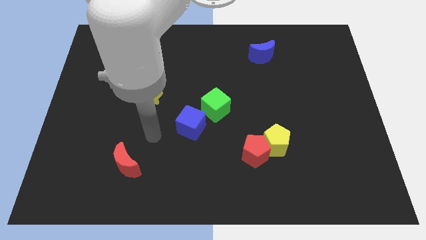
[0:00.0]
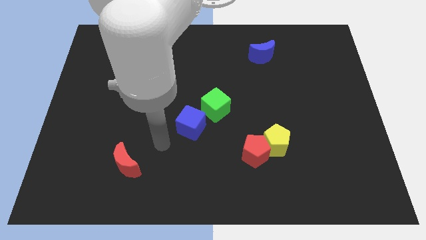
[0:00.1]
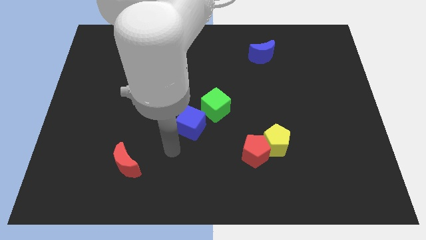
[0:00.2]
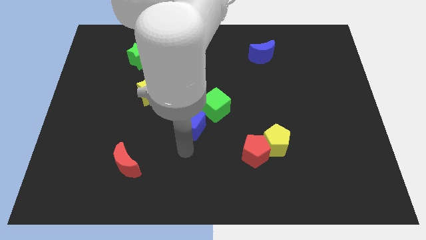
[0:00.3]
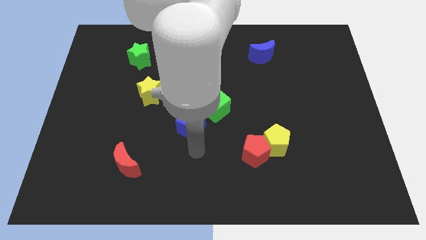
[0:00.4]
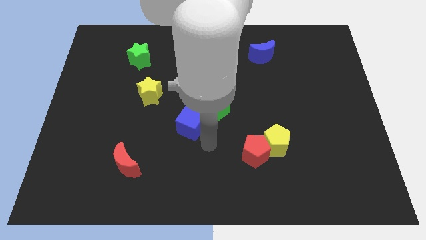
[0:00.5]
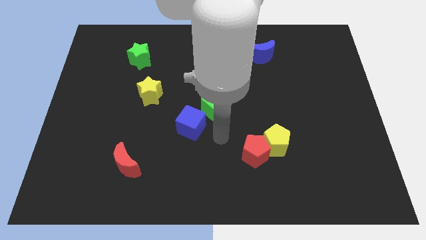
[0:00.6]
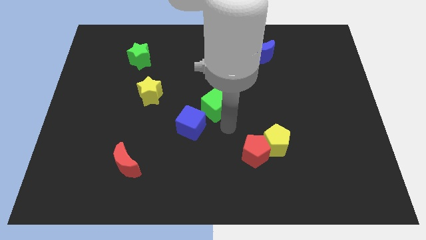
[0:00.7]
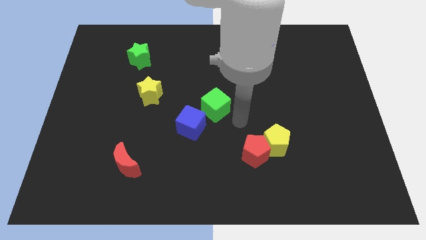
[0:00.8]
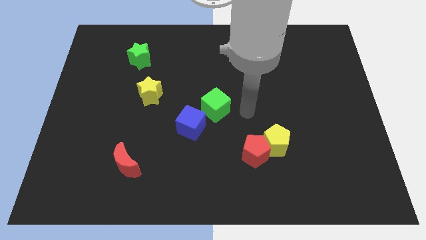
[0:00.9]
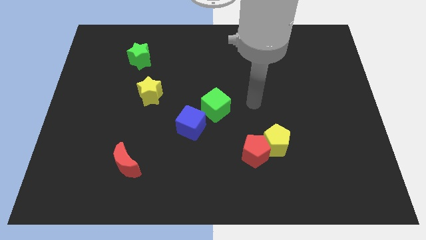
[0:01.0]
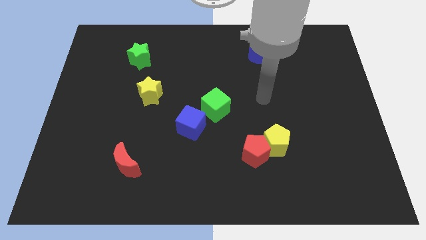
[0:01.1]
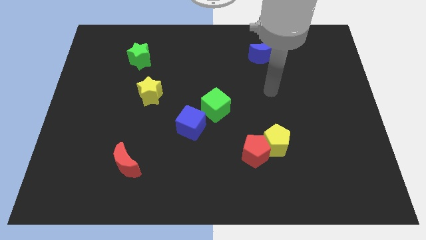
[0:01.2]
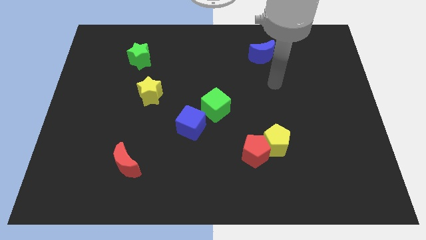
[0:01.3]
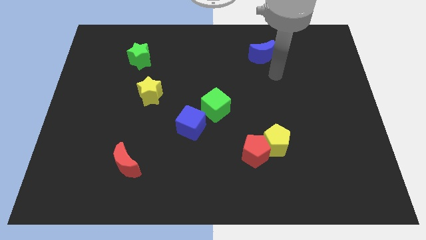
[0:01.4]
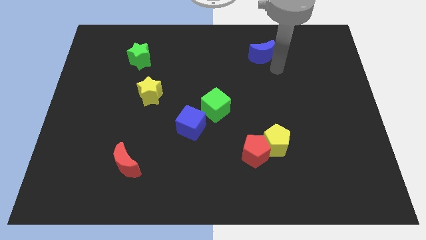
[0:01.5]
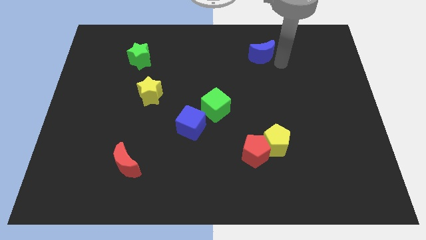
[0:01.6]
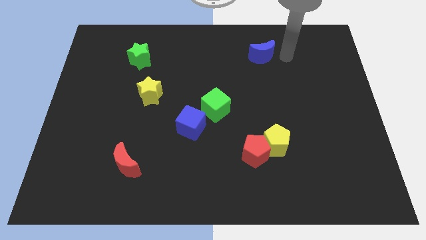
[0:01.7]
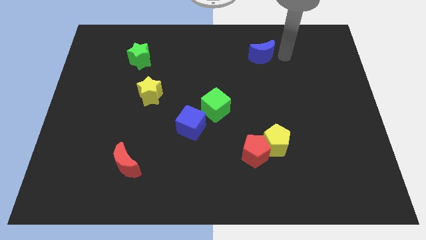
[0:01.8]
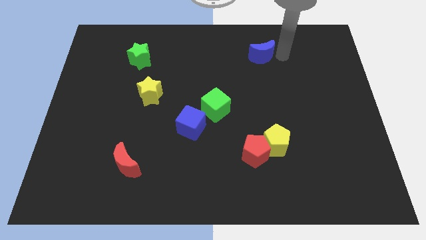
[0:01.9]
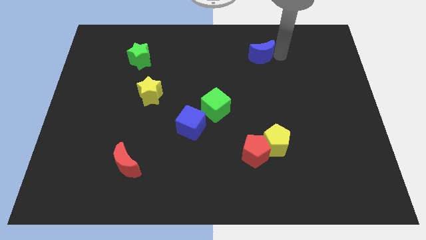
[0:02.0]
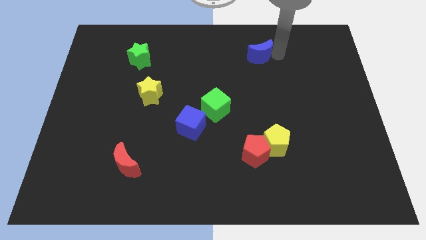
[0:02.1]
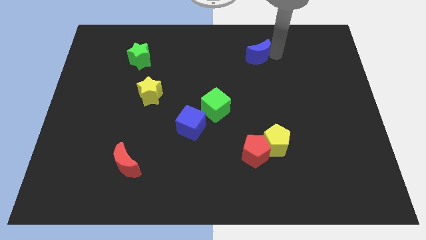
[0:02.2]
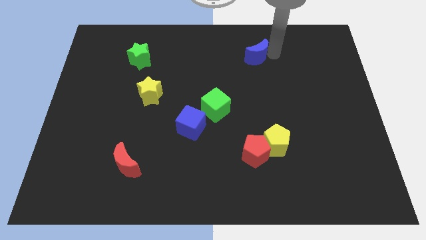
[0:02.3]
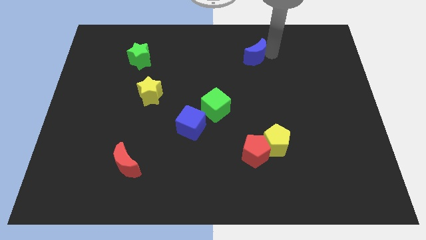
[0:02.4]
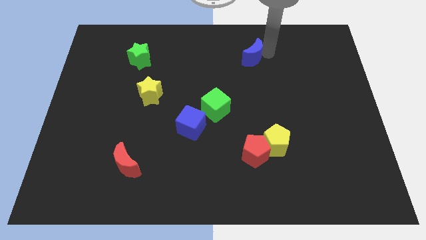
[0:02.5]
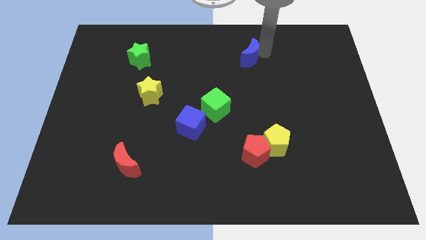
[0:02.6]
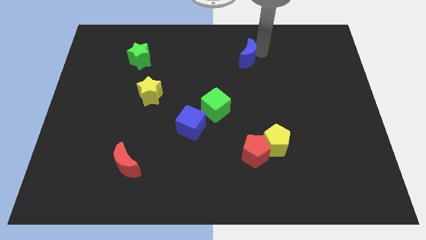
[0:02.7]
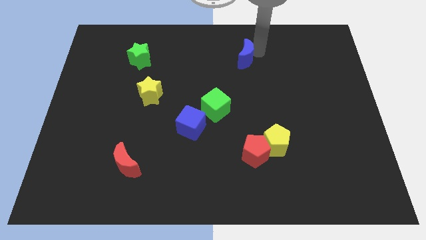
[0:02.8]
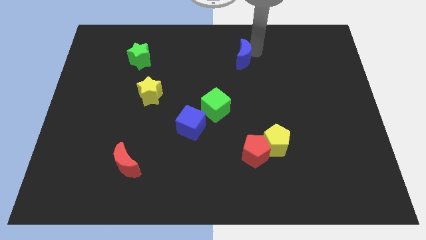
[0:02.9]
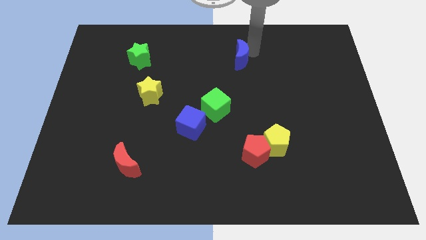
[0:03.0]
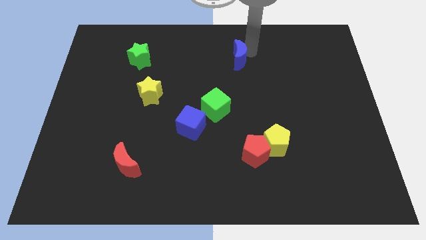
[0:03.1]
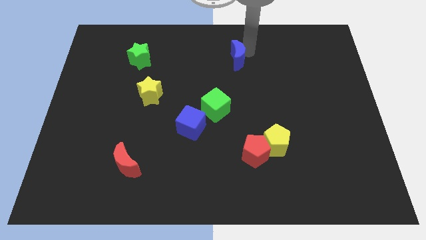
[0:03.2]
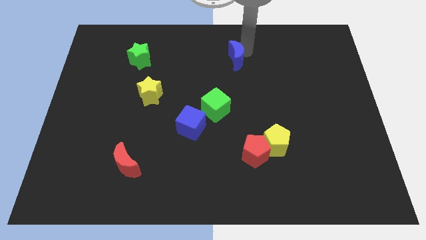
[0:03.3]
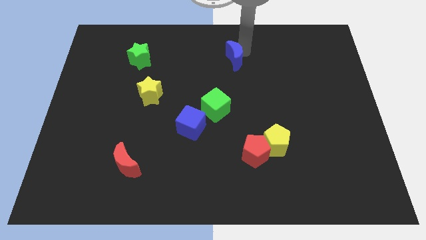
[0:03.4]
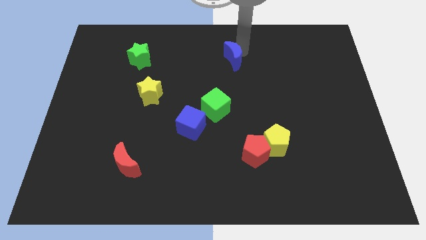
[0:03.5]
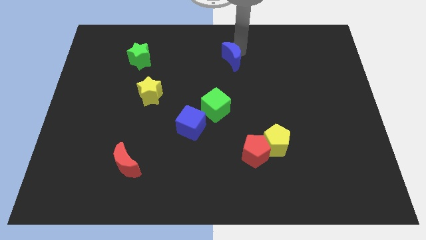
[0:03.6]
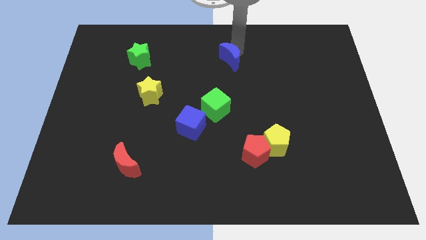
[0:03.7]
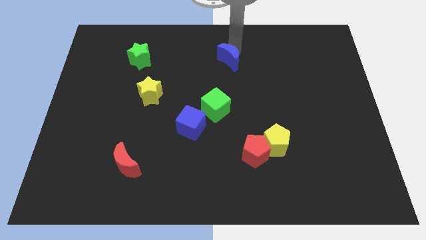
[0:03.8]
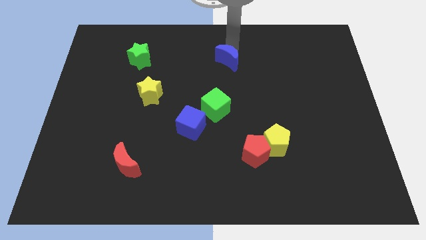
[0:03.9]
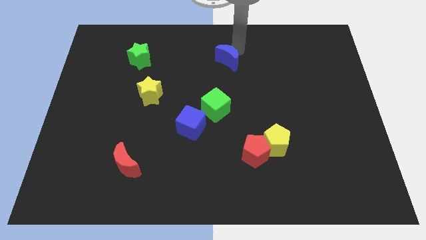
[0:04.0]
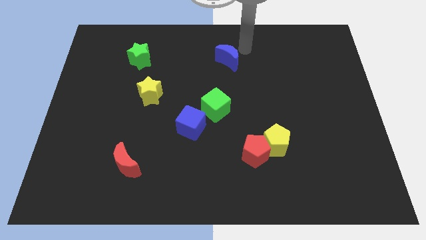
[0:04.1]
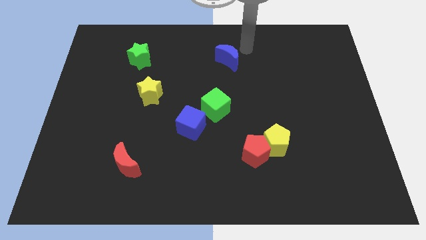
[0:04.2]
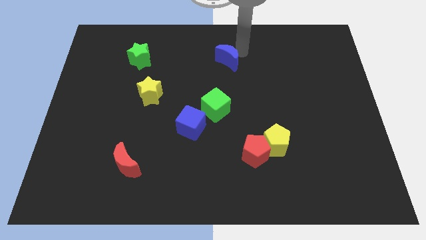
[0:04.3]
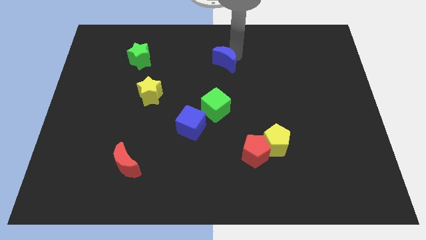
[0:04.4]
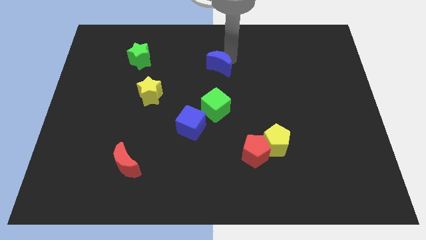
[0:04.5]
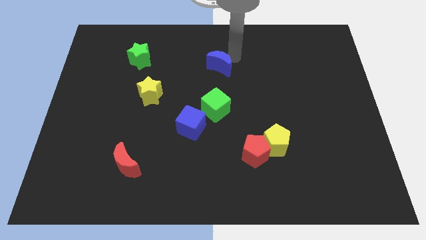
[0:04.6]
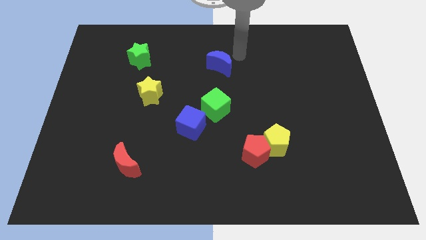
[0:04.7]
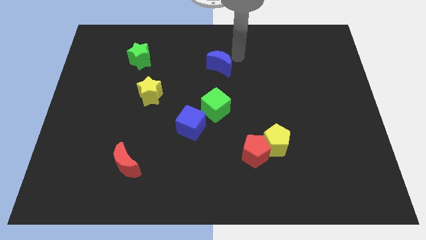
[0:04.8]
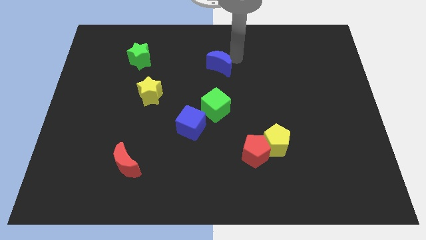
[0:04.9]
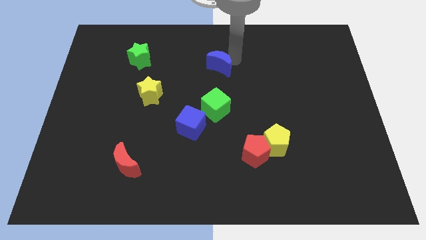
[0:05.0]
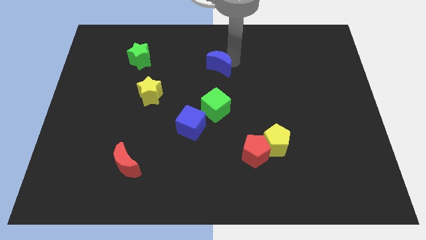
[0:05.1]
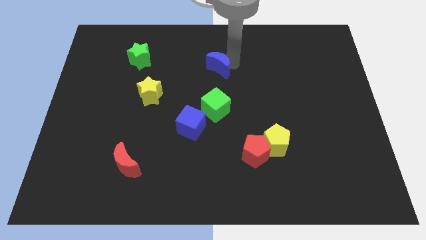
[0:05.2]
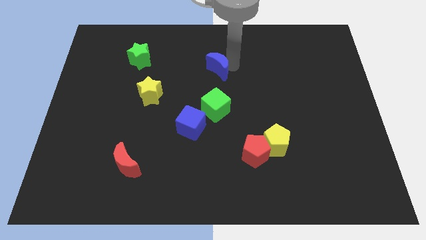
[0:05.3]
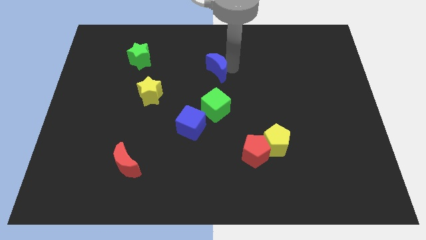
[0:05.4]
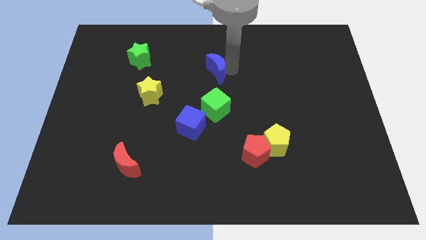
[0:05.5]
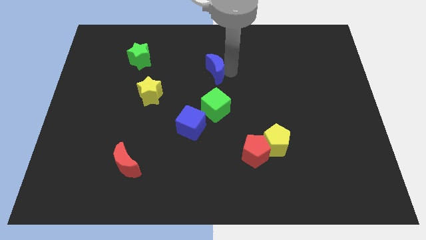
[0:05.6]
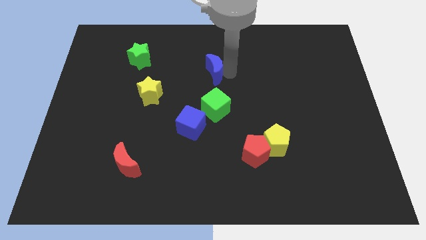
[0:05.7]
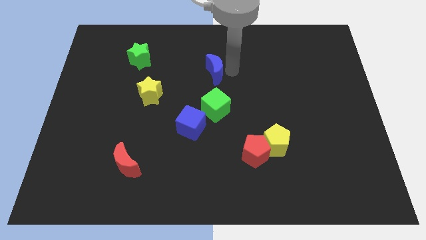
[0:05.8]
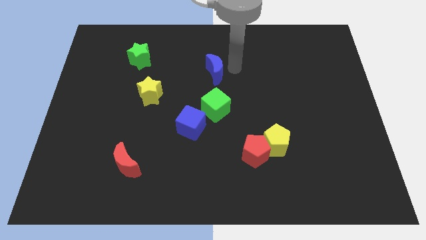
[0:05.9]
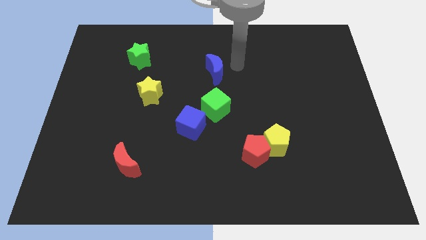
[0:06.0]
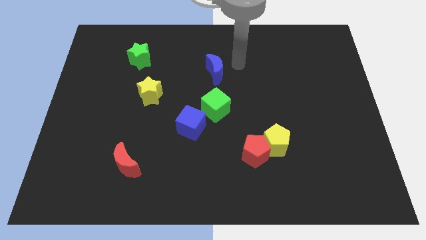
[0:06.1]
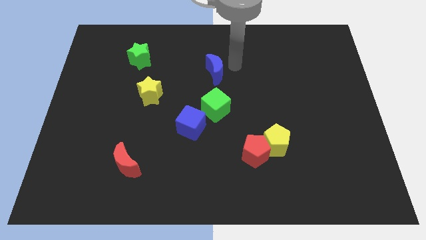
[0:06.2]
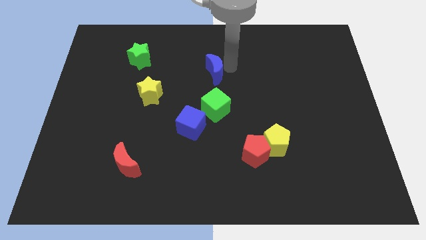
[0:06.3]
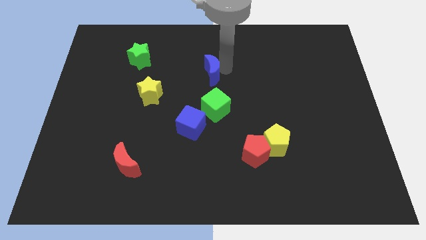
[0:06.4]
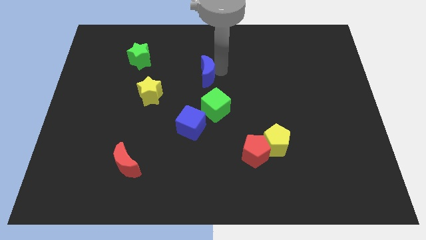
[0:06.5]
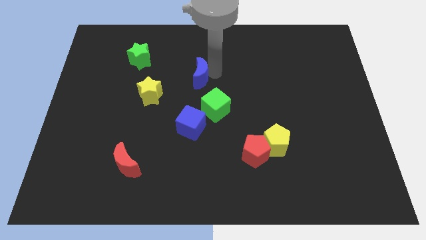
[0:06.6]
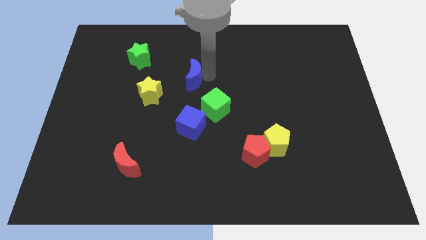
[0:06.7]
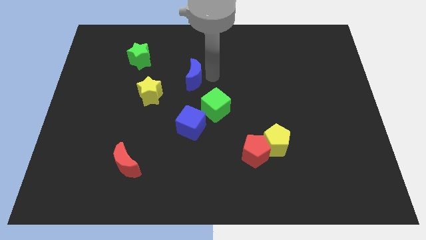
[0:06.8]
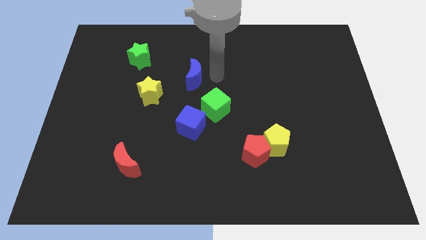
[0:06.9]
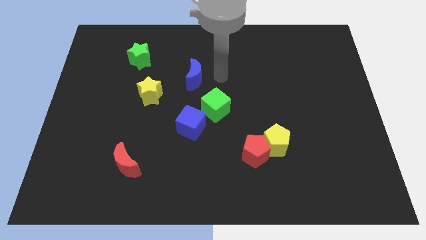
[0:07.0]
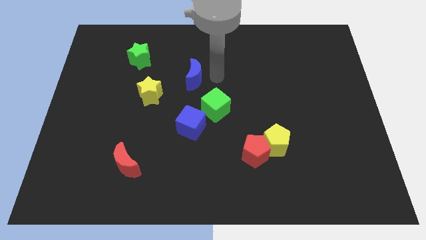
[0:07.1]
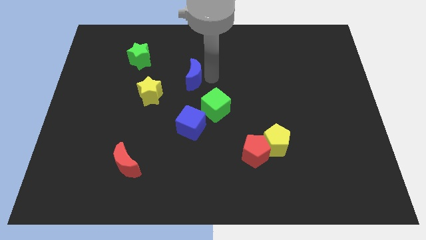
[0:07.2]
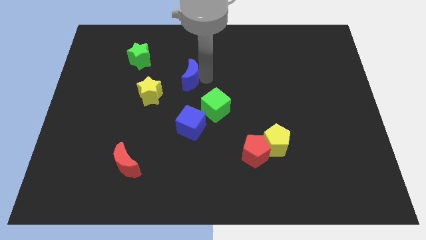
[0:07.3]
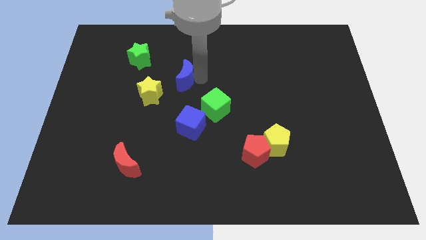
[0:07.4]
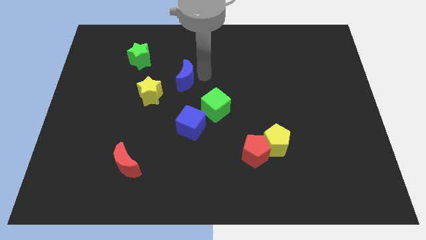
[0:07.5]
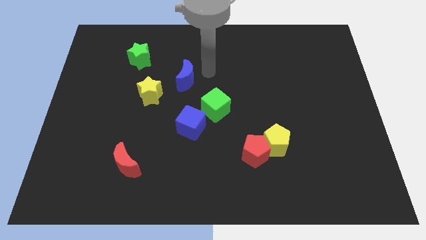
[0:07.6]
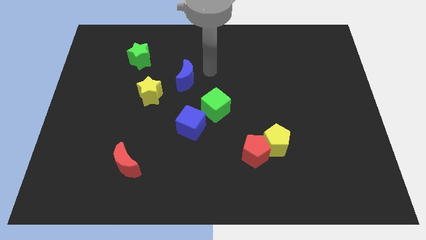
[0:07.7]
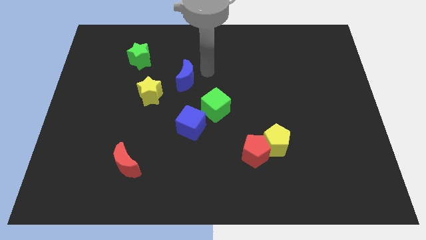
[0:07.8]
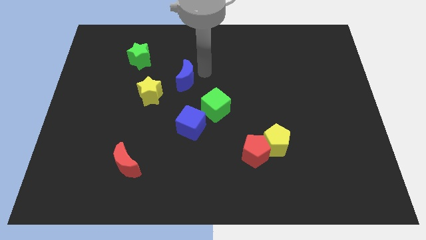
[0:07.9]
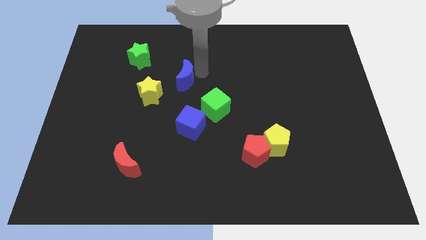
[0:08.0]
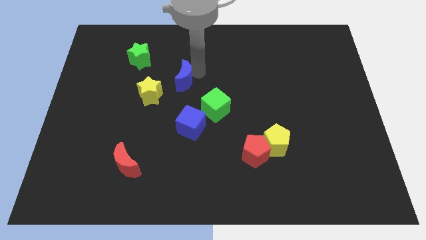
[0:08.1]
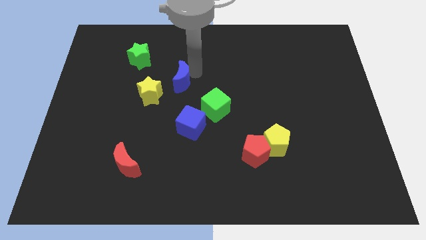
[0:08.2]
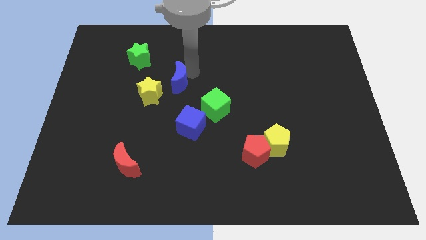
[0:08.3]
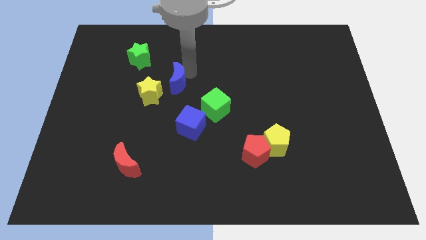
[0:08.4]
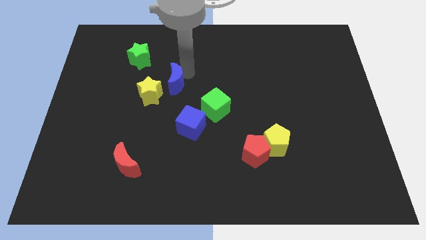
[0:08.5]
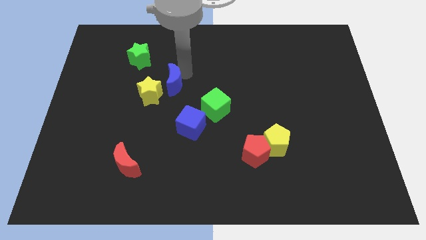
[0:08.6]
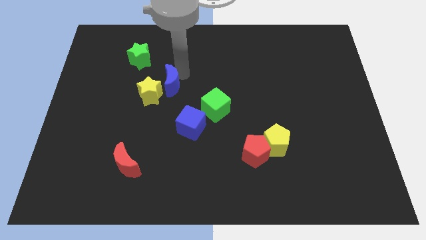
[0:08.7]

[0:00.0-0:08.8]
slide the blue moon to the yellow star
